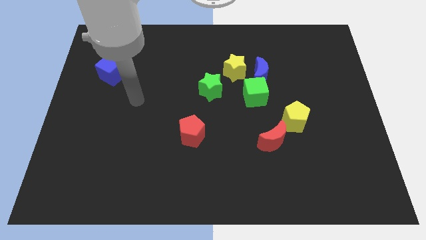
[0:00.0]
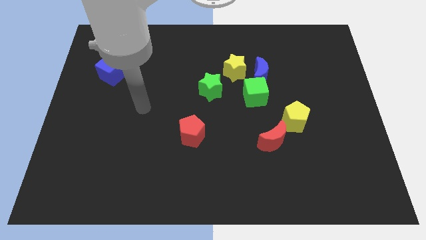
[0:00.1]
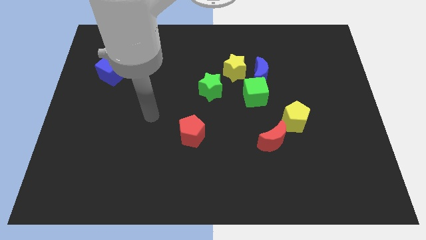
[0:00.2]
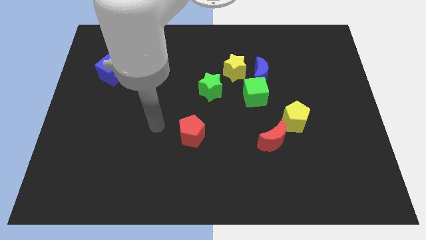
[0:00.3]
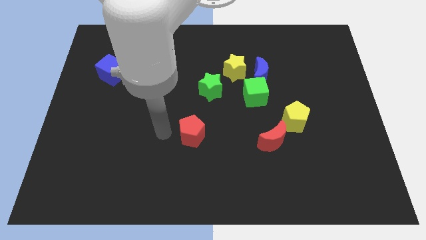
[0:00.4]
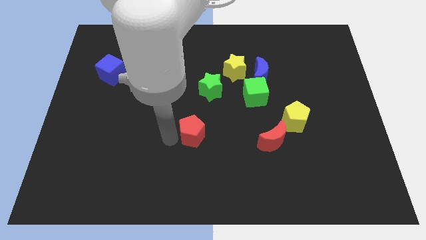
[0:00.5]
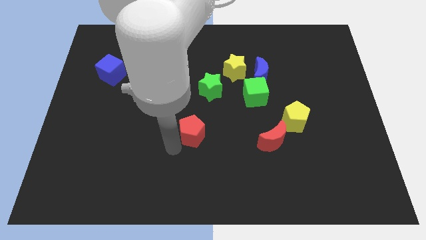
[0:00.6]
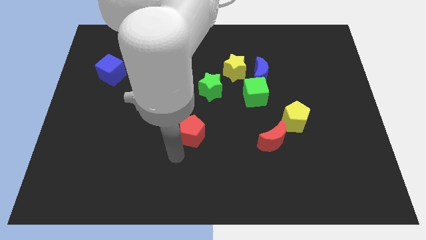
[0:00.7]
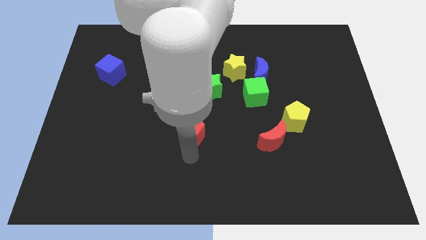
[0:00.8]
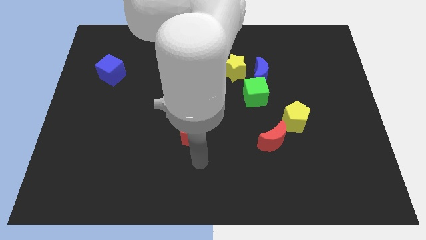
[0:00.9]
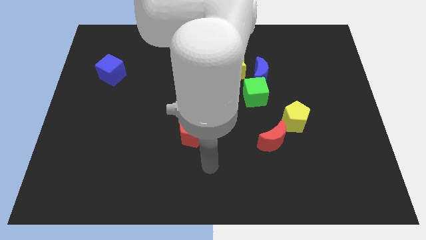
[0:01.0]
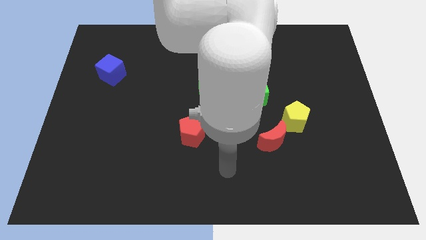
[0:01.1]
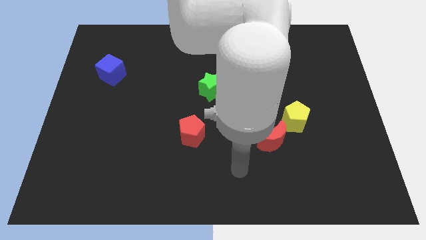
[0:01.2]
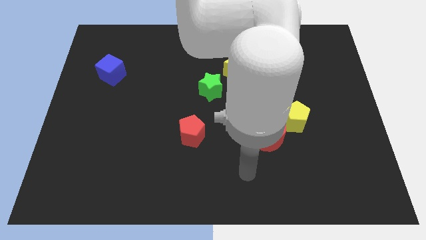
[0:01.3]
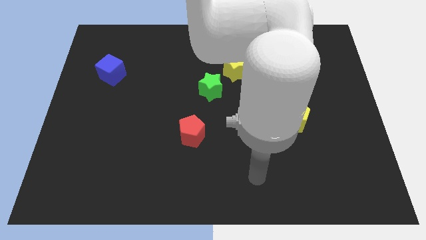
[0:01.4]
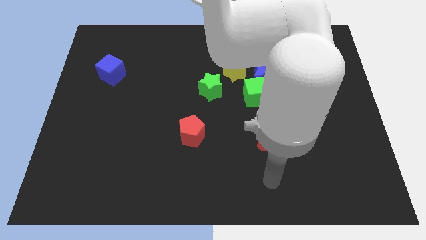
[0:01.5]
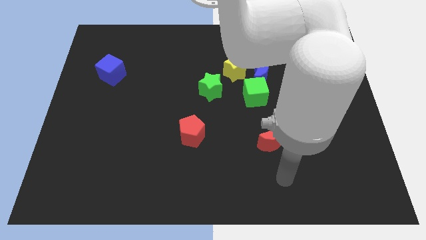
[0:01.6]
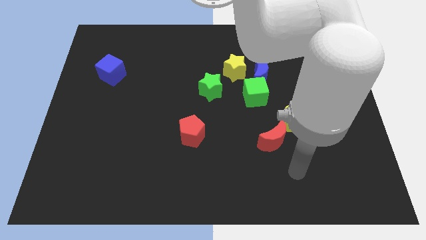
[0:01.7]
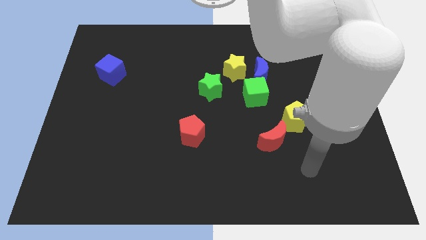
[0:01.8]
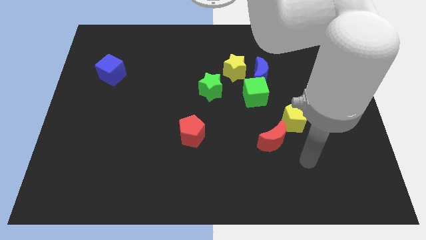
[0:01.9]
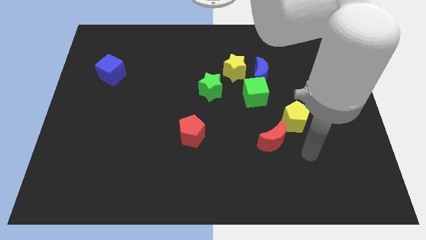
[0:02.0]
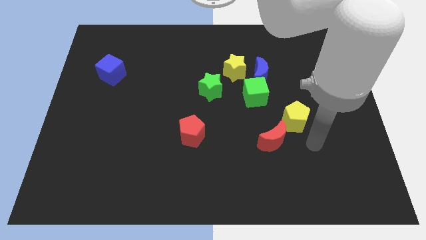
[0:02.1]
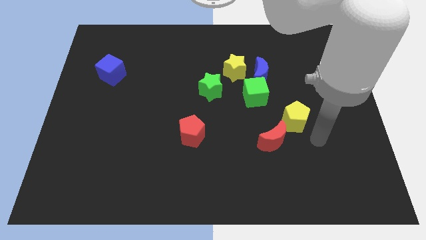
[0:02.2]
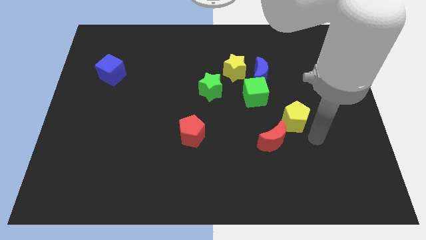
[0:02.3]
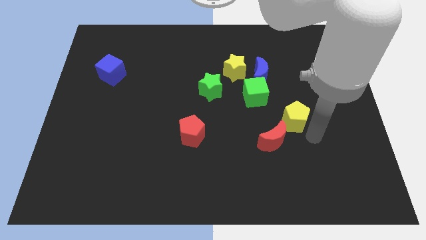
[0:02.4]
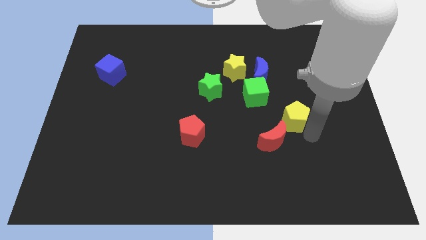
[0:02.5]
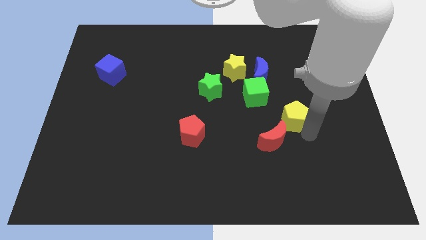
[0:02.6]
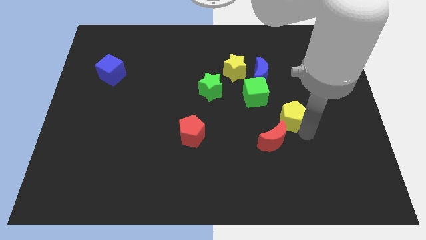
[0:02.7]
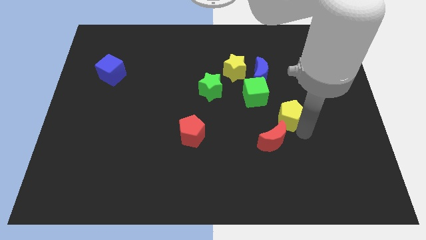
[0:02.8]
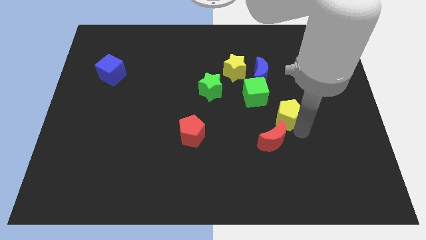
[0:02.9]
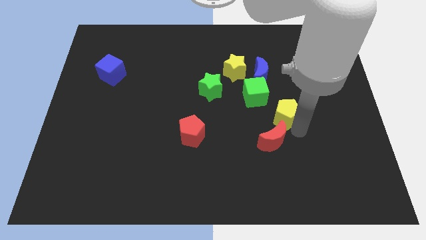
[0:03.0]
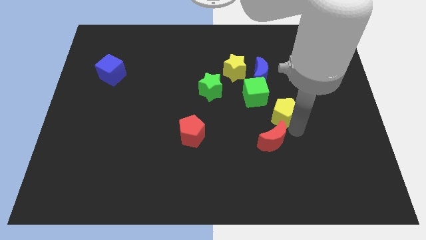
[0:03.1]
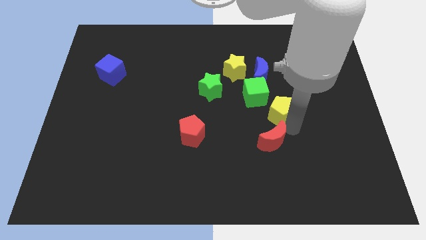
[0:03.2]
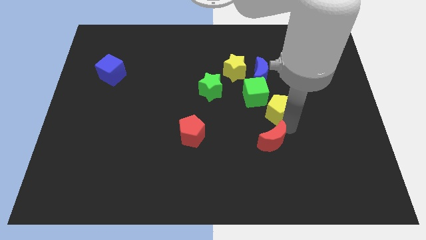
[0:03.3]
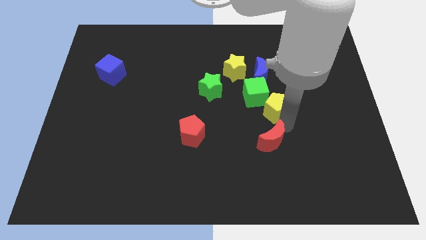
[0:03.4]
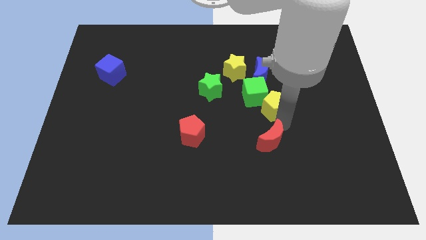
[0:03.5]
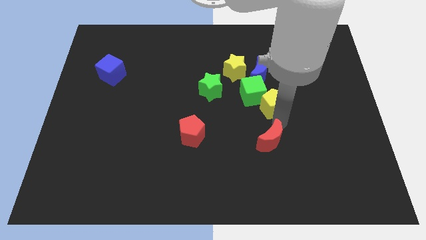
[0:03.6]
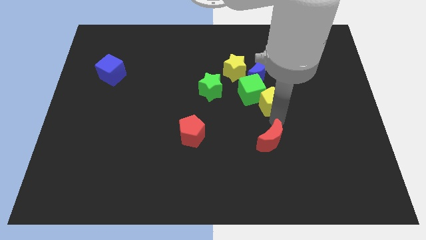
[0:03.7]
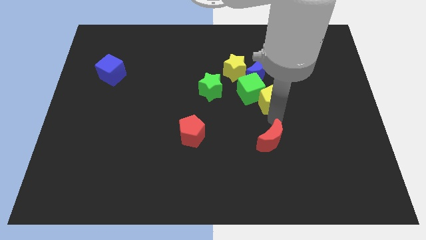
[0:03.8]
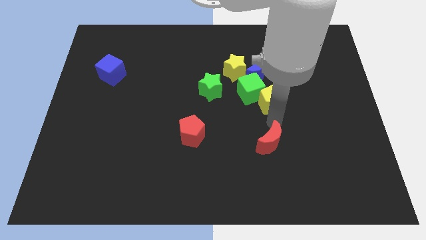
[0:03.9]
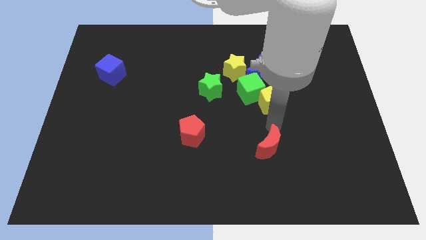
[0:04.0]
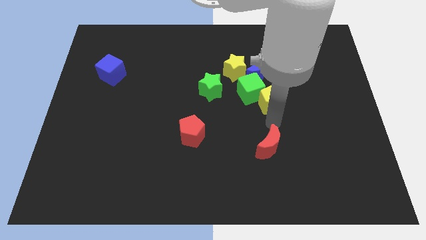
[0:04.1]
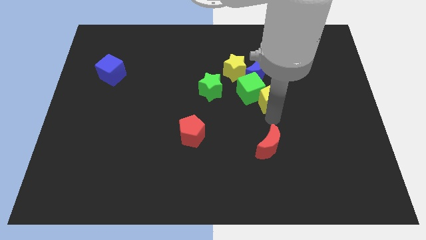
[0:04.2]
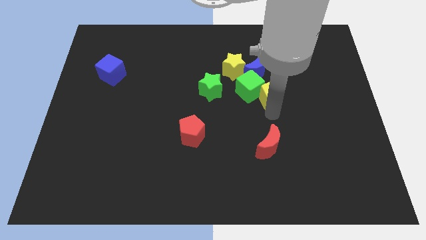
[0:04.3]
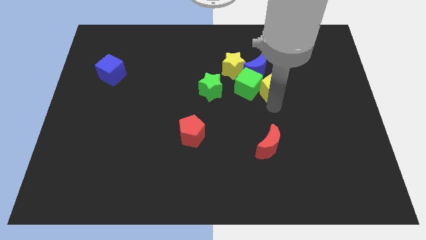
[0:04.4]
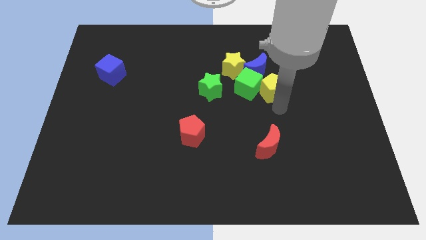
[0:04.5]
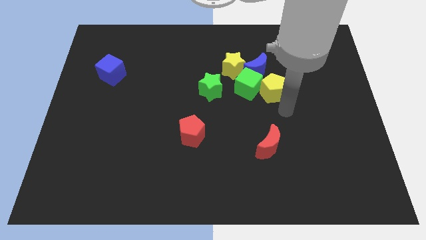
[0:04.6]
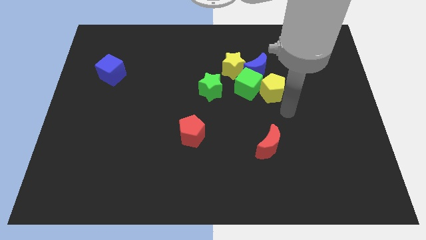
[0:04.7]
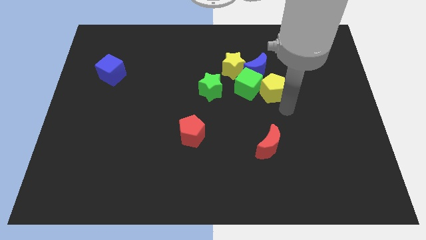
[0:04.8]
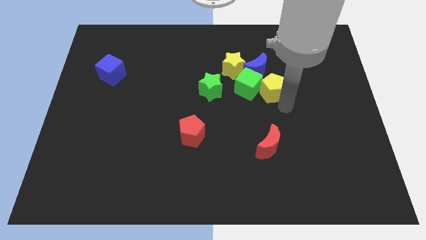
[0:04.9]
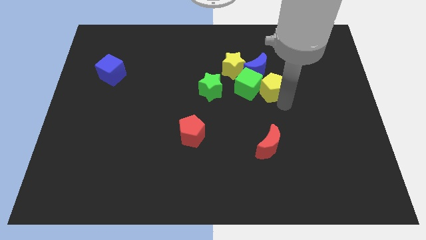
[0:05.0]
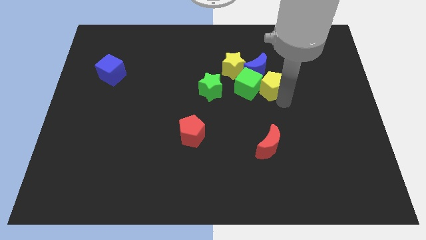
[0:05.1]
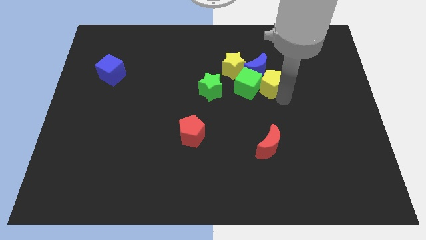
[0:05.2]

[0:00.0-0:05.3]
slide the yellow pentagon to the blue moon

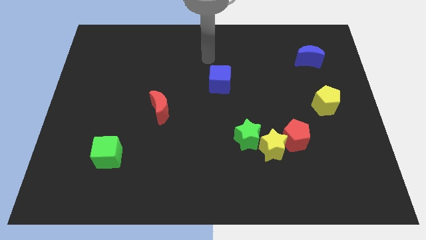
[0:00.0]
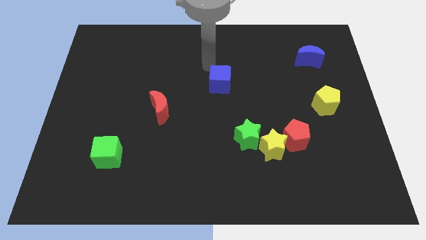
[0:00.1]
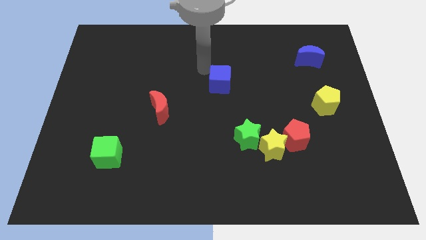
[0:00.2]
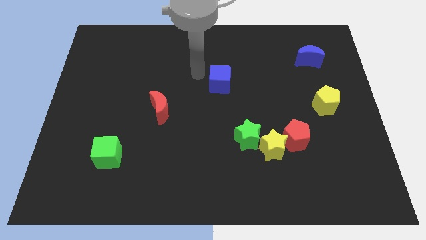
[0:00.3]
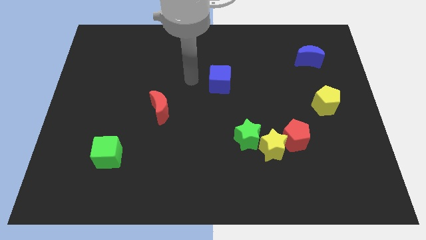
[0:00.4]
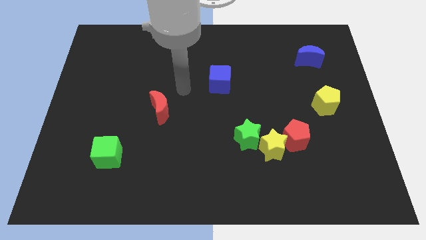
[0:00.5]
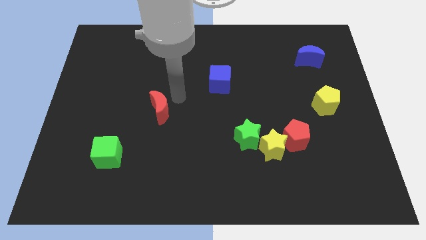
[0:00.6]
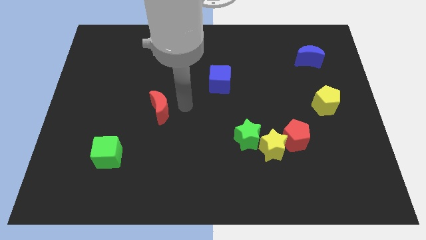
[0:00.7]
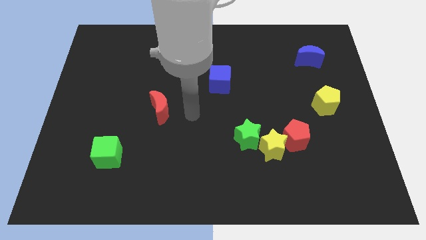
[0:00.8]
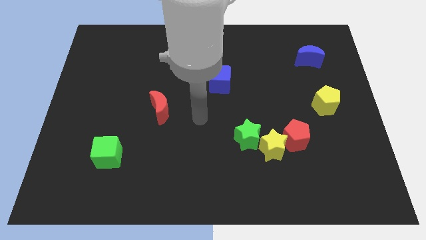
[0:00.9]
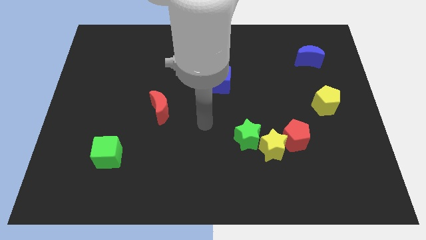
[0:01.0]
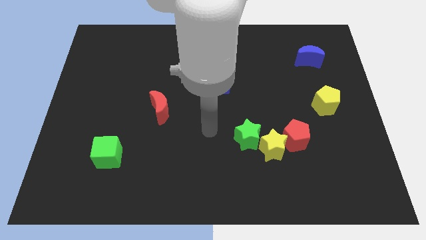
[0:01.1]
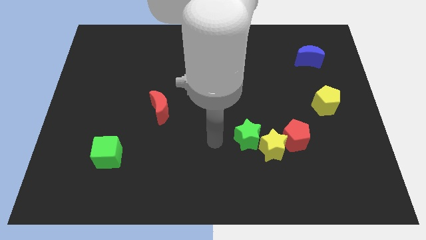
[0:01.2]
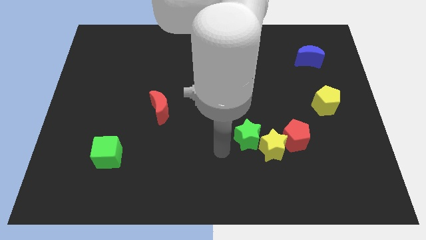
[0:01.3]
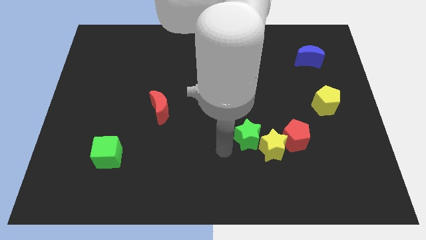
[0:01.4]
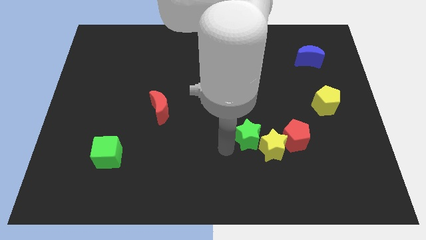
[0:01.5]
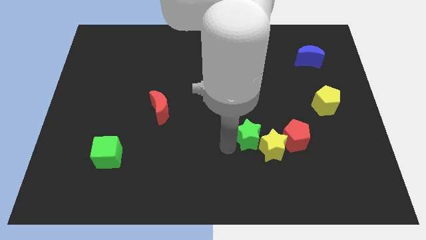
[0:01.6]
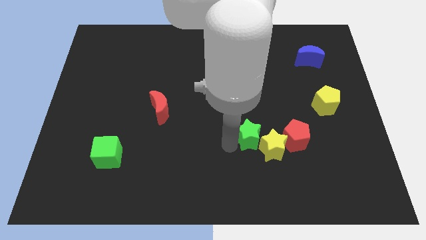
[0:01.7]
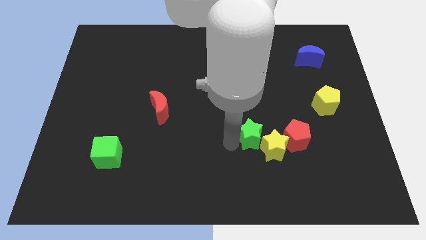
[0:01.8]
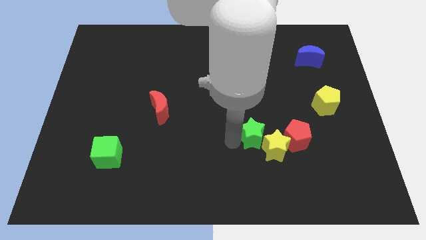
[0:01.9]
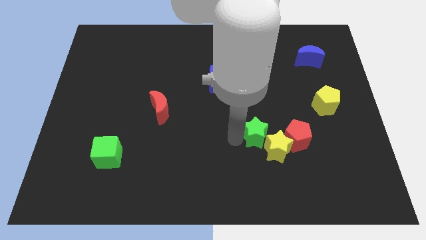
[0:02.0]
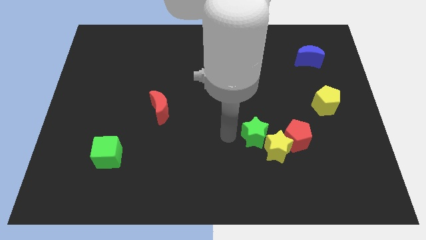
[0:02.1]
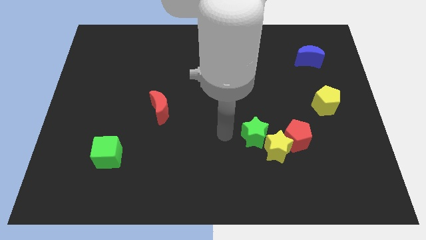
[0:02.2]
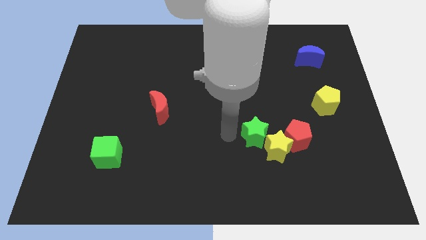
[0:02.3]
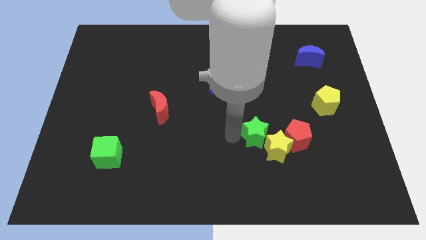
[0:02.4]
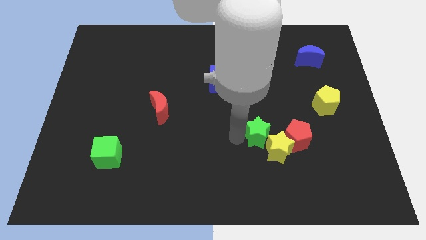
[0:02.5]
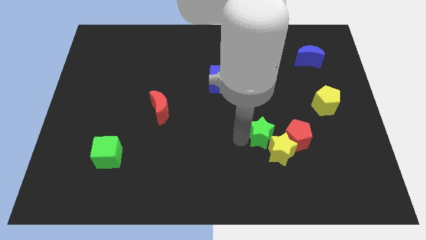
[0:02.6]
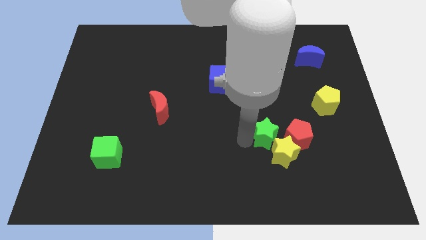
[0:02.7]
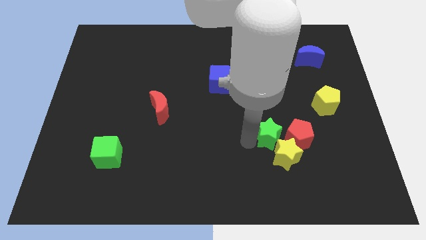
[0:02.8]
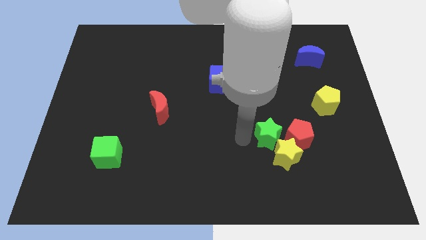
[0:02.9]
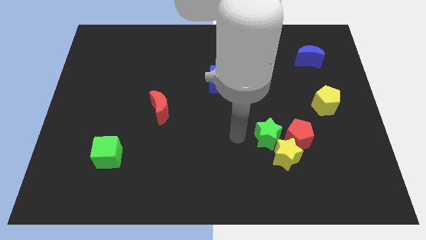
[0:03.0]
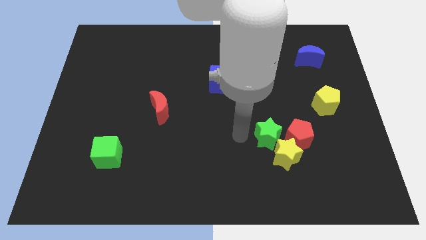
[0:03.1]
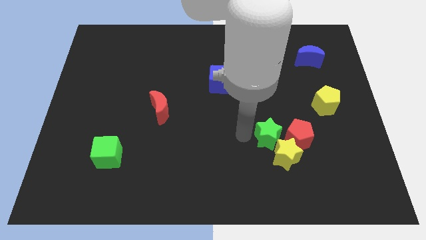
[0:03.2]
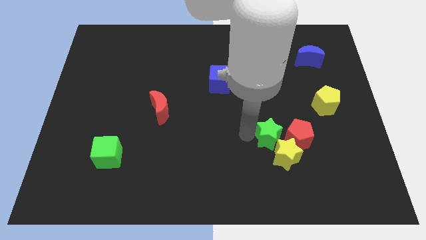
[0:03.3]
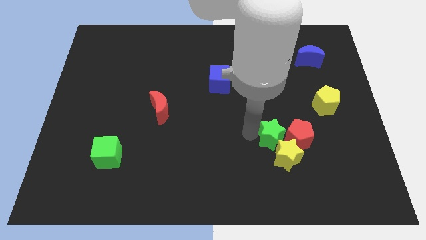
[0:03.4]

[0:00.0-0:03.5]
slide the green star towards the red pentagon
